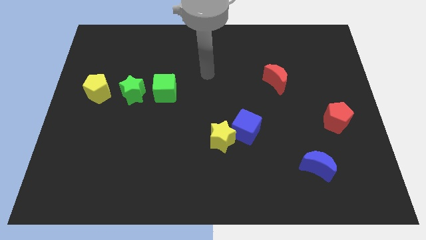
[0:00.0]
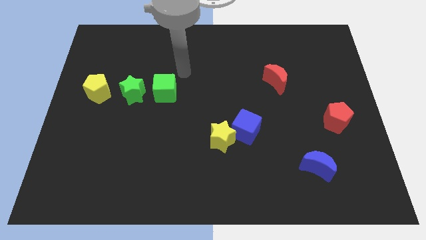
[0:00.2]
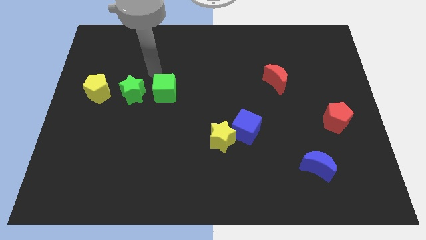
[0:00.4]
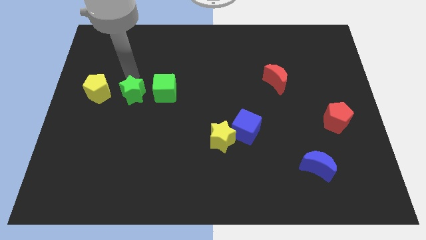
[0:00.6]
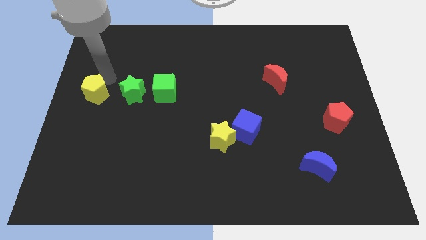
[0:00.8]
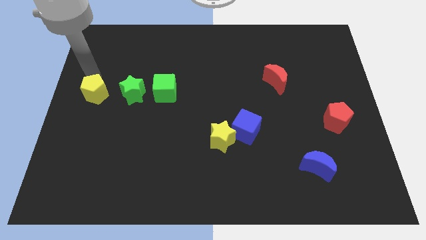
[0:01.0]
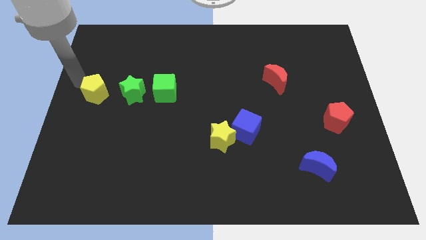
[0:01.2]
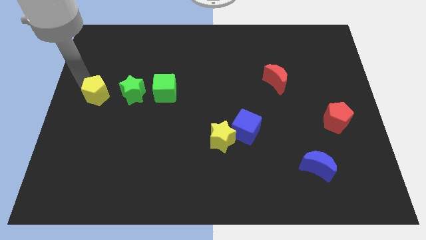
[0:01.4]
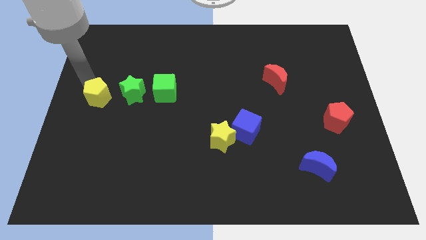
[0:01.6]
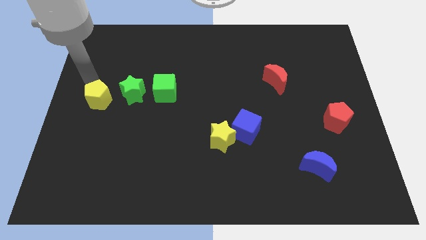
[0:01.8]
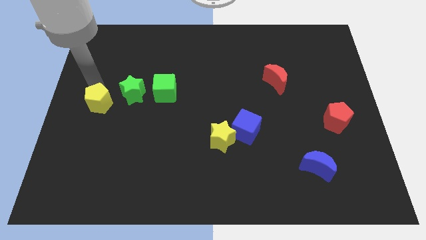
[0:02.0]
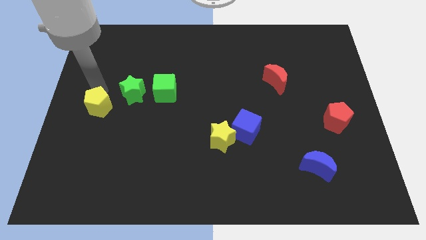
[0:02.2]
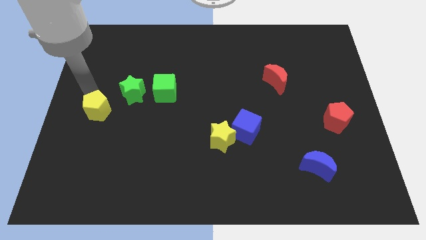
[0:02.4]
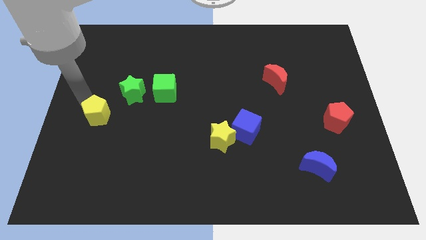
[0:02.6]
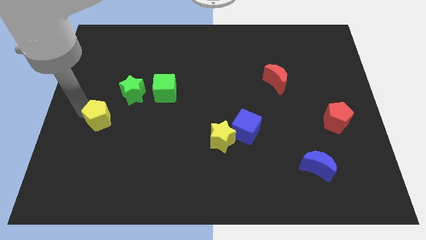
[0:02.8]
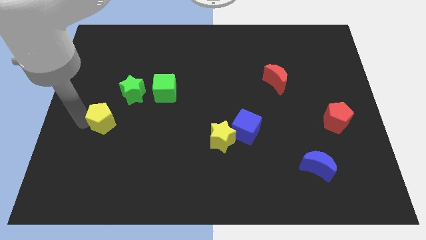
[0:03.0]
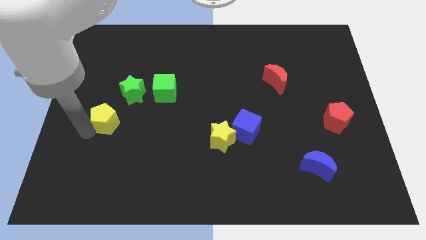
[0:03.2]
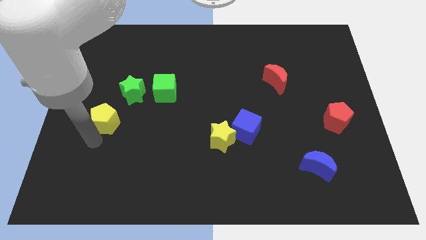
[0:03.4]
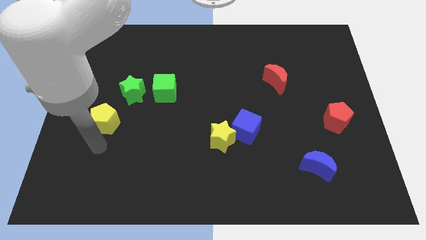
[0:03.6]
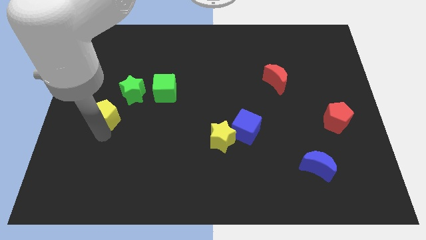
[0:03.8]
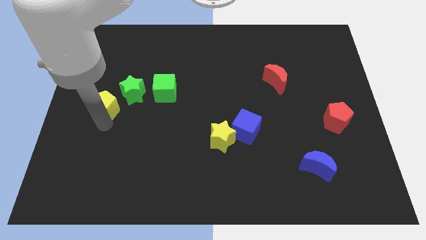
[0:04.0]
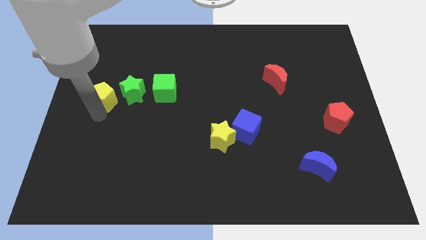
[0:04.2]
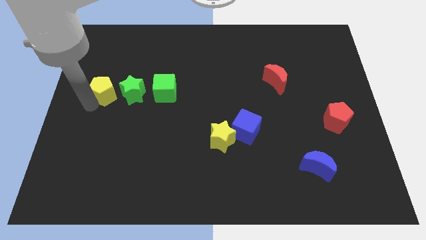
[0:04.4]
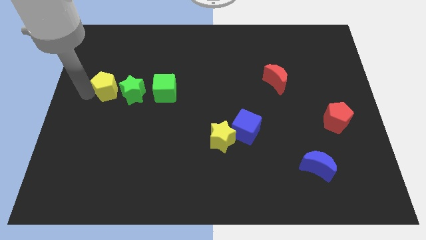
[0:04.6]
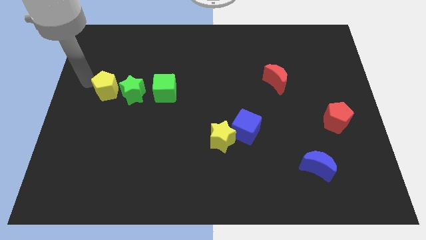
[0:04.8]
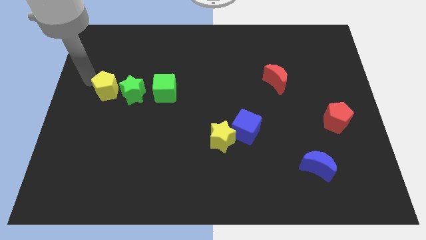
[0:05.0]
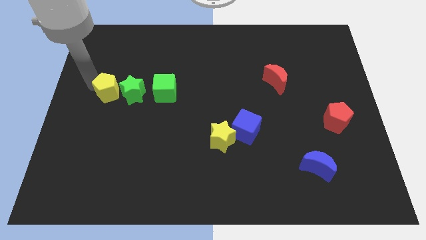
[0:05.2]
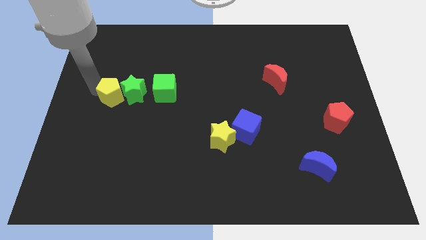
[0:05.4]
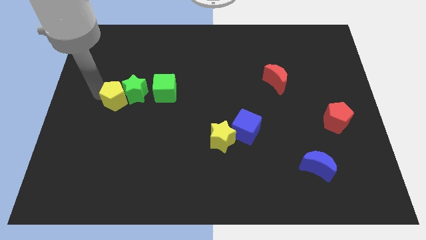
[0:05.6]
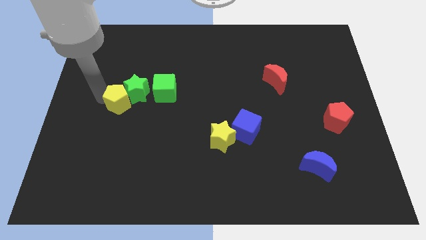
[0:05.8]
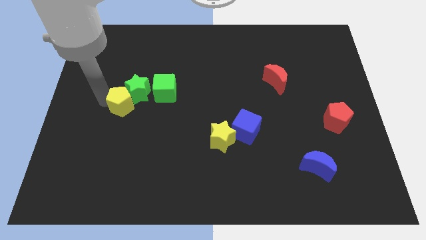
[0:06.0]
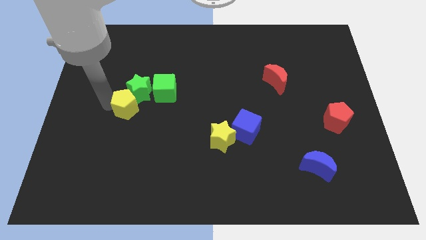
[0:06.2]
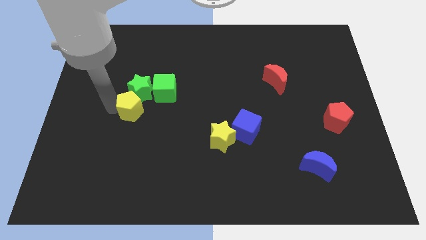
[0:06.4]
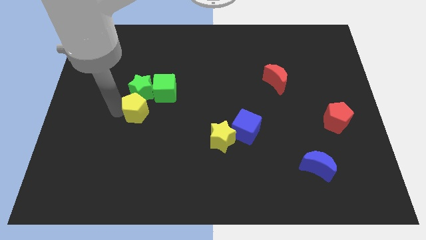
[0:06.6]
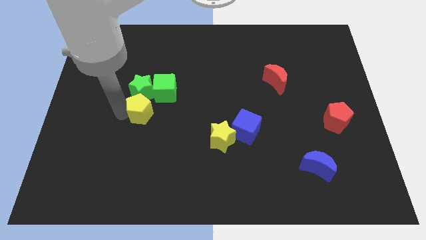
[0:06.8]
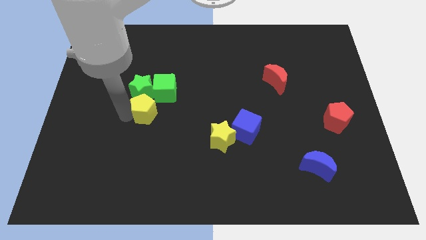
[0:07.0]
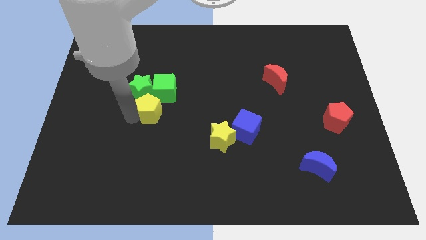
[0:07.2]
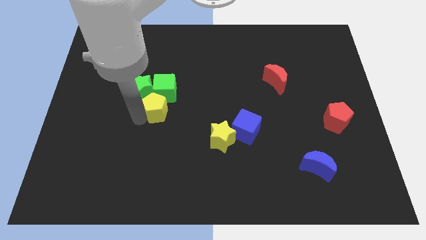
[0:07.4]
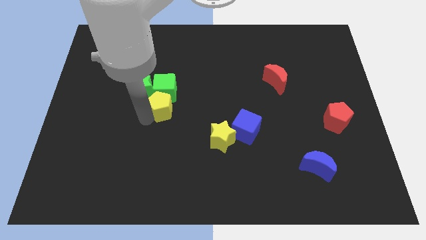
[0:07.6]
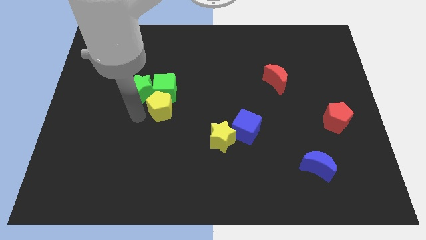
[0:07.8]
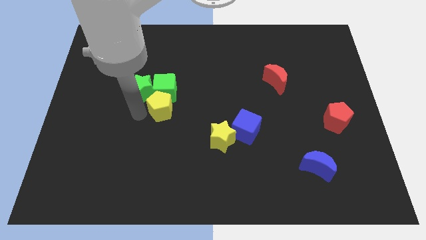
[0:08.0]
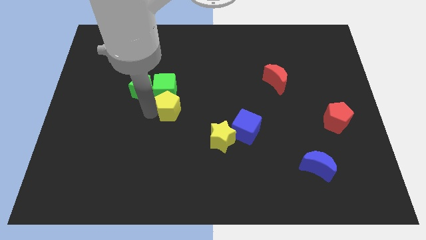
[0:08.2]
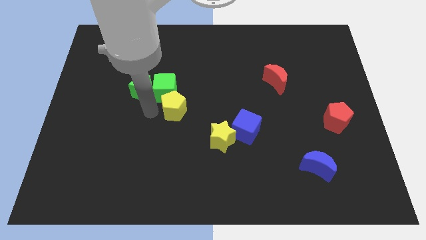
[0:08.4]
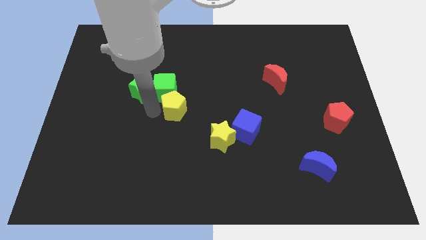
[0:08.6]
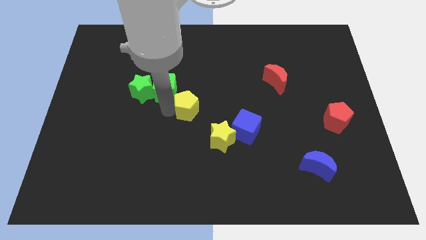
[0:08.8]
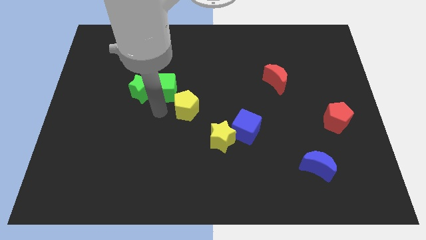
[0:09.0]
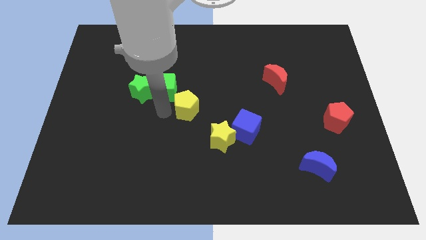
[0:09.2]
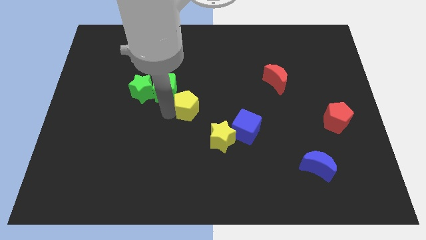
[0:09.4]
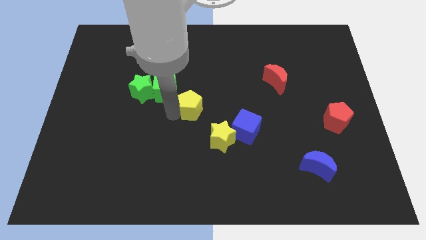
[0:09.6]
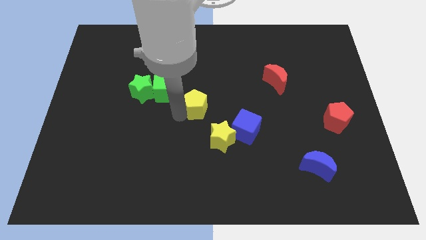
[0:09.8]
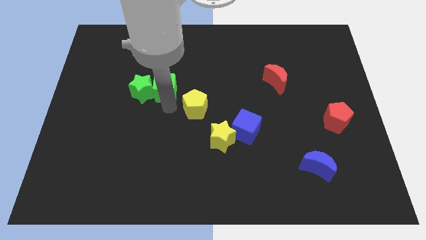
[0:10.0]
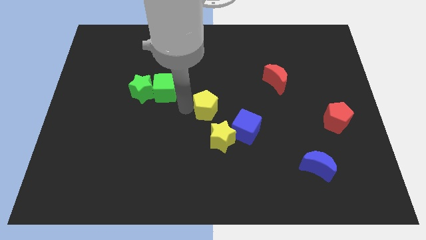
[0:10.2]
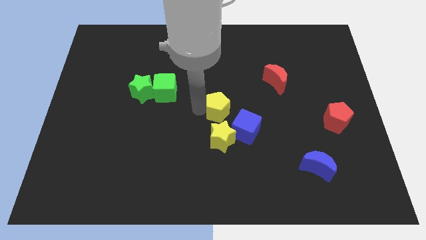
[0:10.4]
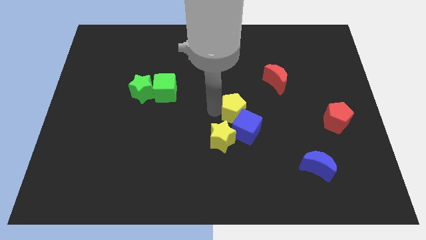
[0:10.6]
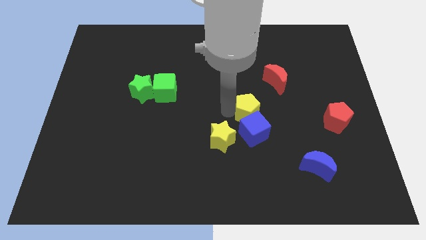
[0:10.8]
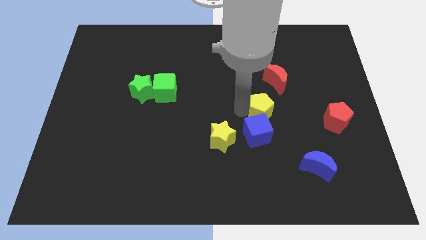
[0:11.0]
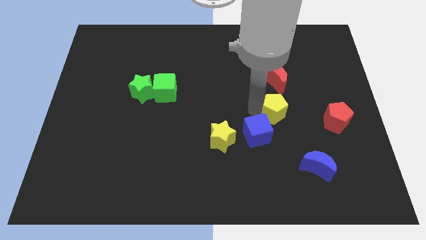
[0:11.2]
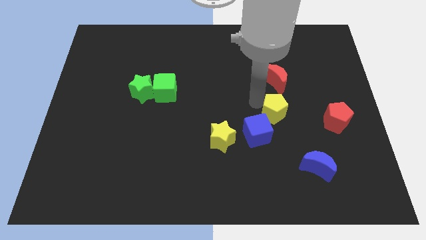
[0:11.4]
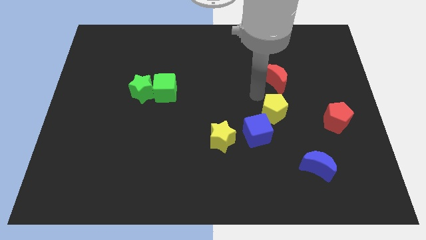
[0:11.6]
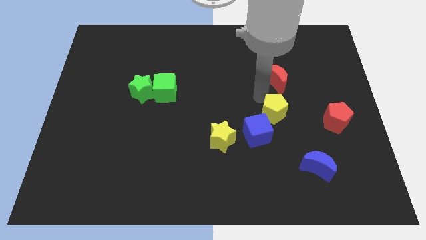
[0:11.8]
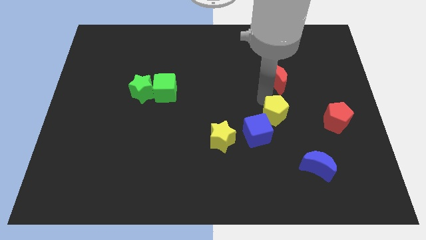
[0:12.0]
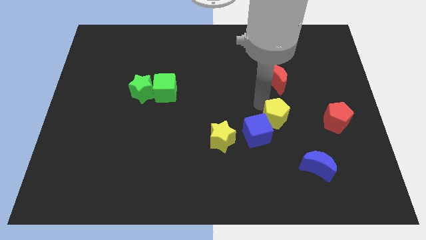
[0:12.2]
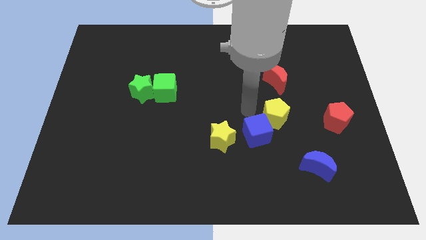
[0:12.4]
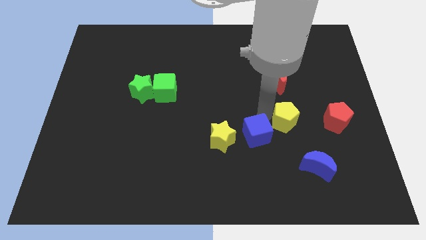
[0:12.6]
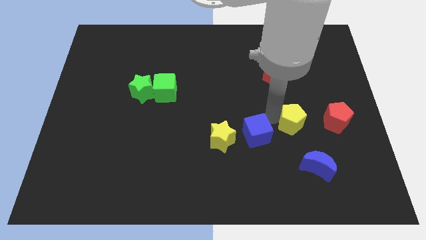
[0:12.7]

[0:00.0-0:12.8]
move the yellow pentagon above the blue moon

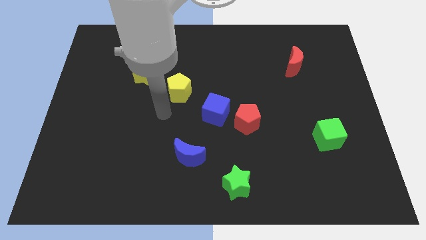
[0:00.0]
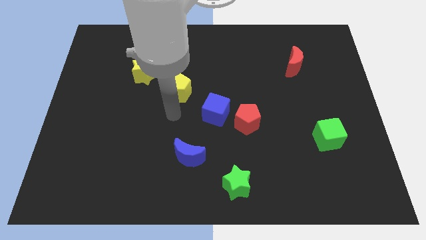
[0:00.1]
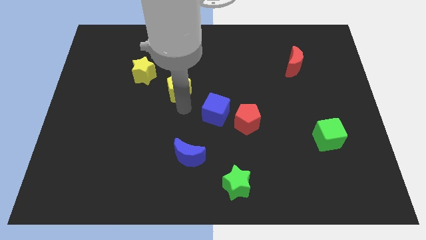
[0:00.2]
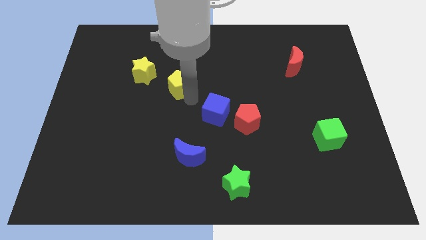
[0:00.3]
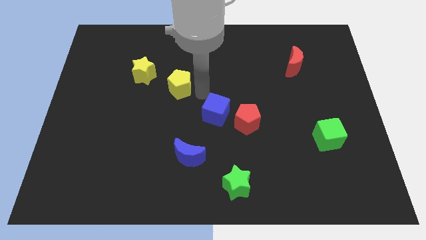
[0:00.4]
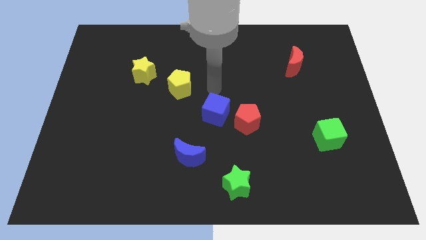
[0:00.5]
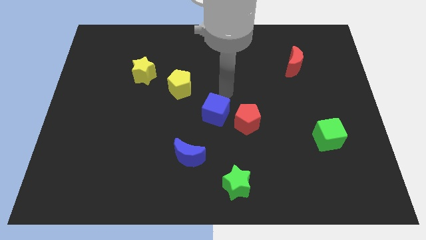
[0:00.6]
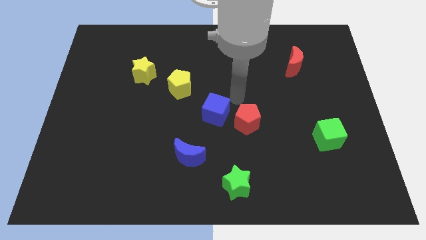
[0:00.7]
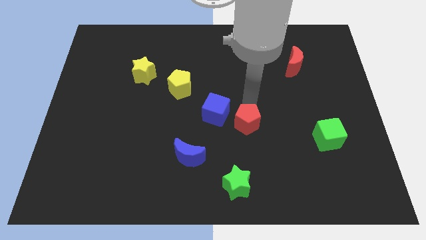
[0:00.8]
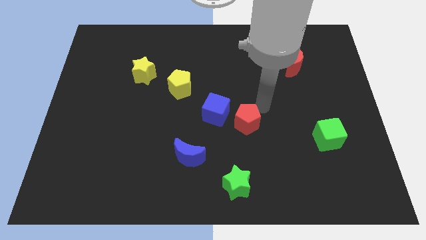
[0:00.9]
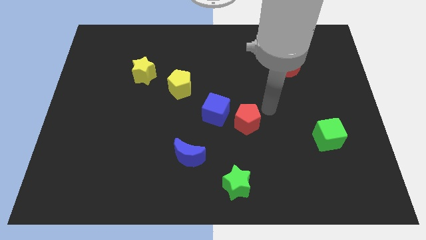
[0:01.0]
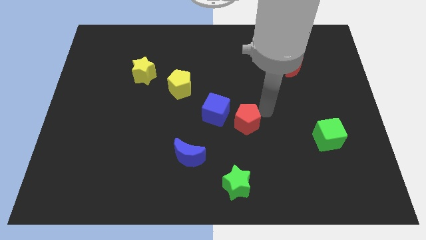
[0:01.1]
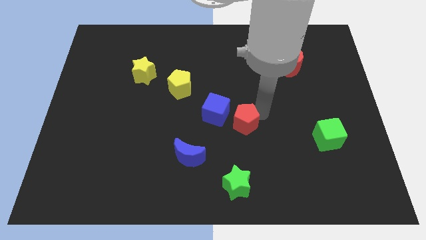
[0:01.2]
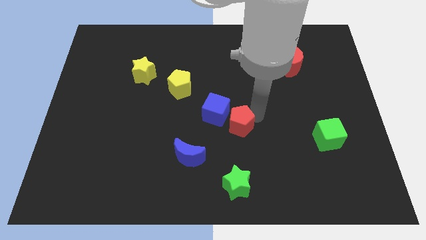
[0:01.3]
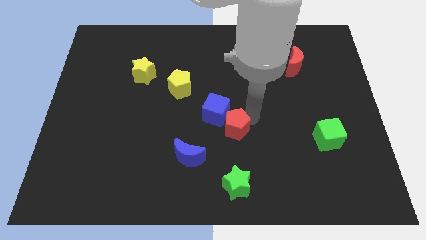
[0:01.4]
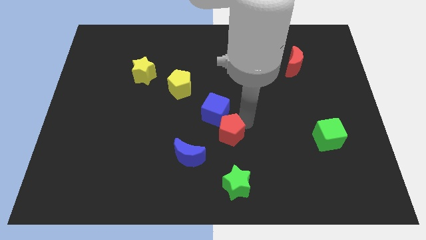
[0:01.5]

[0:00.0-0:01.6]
slide the red pentagon to the top right of the blue moon
